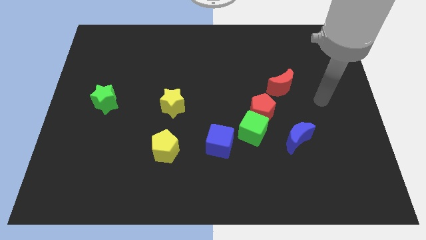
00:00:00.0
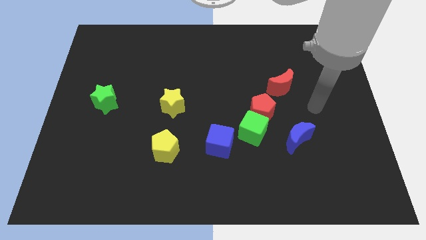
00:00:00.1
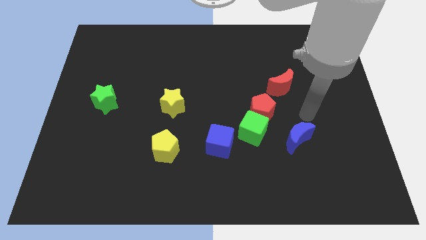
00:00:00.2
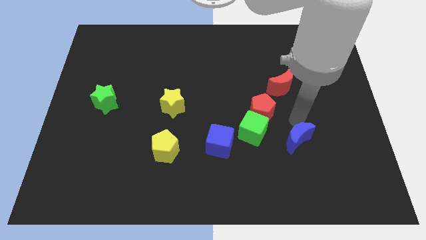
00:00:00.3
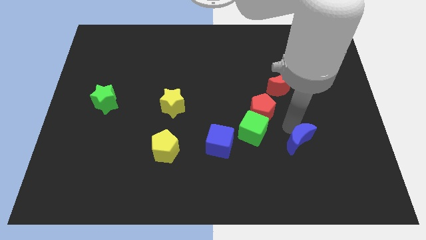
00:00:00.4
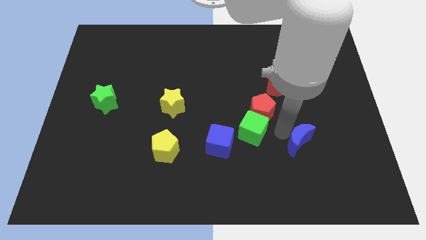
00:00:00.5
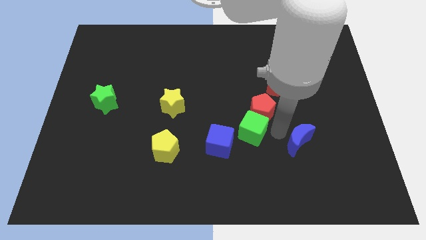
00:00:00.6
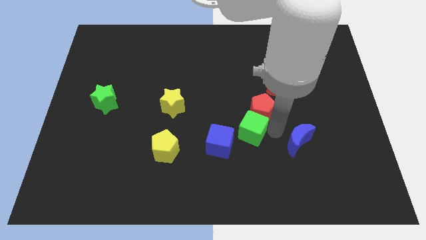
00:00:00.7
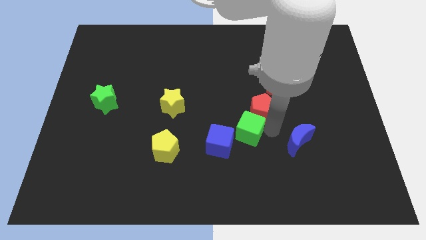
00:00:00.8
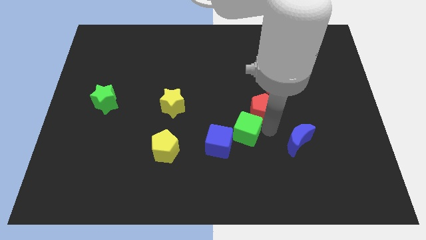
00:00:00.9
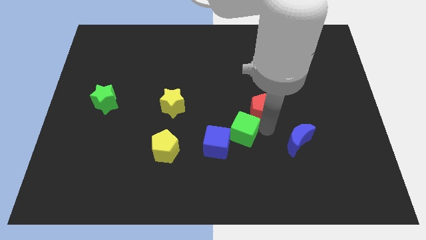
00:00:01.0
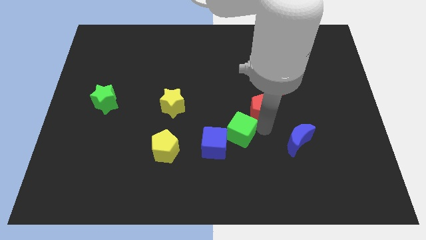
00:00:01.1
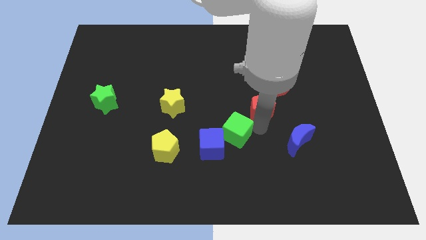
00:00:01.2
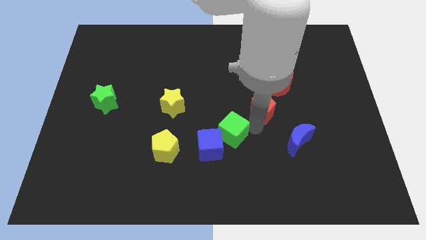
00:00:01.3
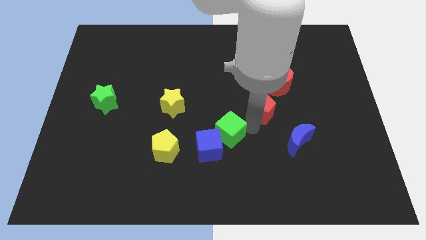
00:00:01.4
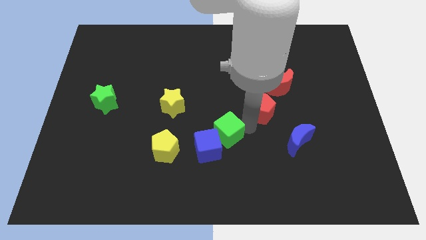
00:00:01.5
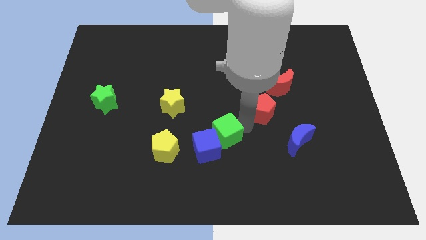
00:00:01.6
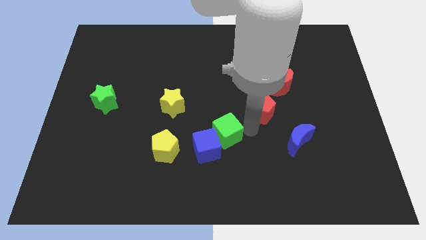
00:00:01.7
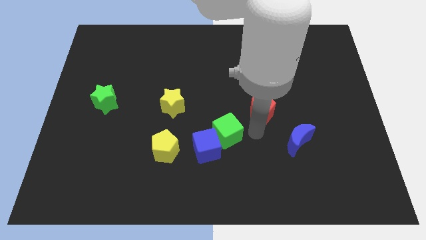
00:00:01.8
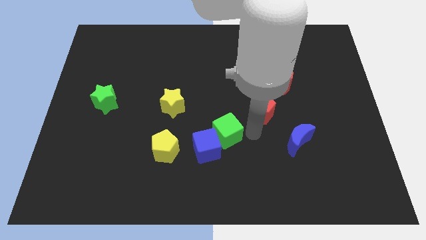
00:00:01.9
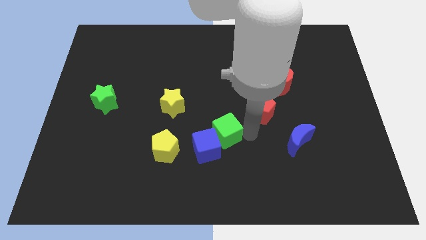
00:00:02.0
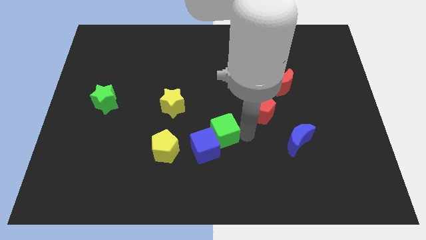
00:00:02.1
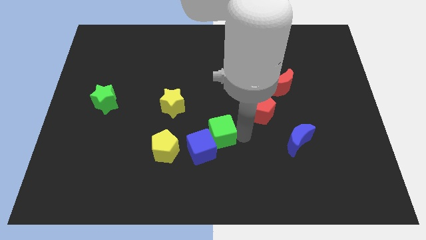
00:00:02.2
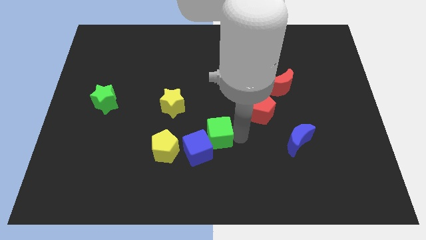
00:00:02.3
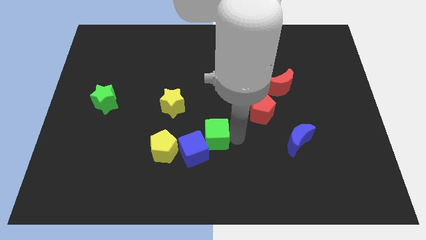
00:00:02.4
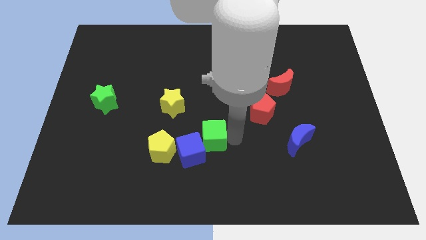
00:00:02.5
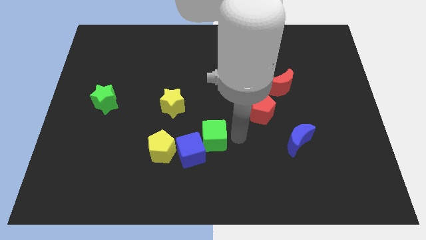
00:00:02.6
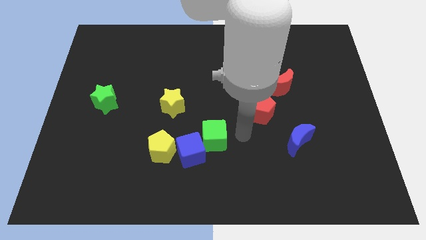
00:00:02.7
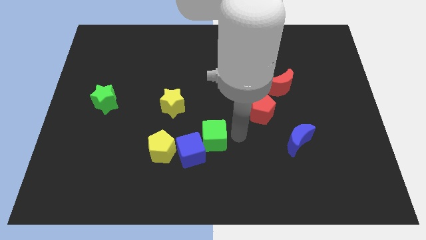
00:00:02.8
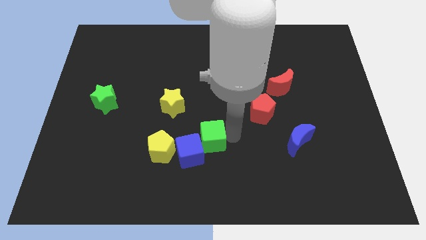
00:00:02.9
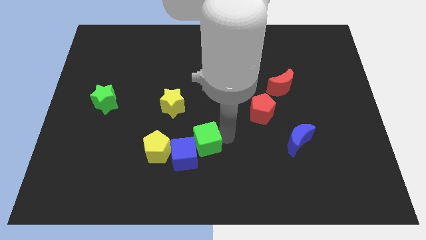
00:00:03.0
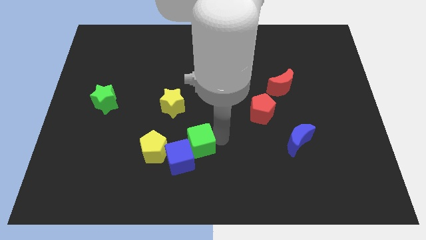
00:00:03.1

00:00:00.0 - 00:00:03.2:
pull the green cube apart from the clump

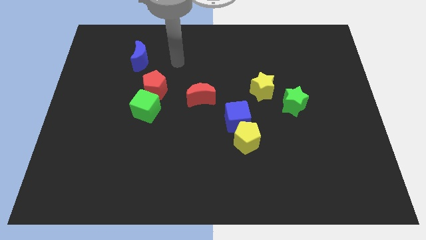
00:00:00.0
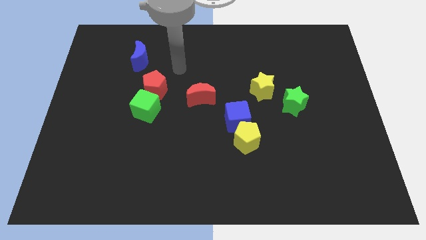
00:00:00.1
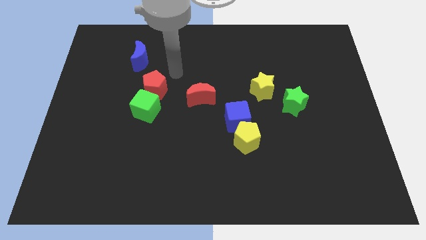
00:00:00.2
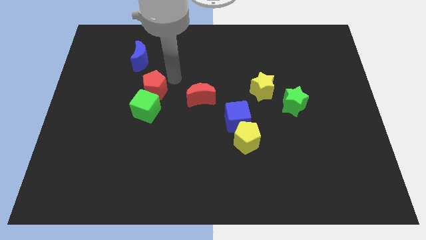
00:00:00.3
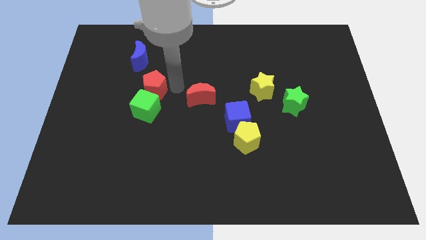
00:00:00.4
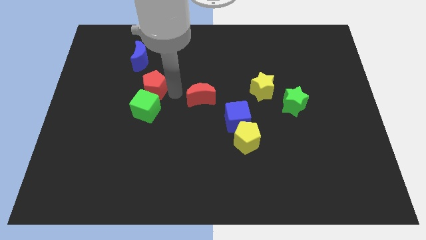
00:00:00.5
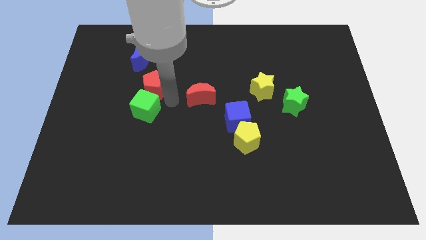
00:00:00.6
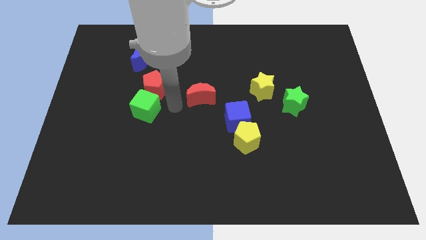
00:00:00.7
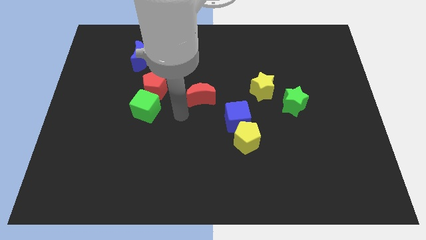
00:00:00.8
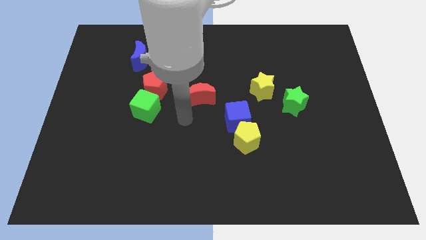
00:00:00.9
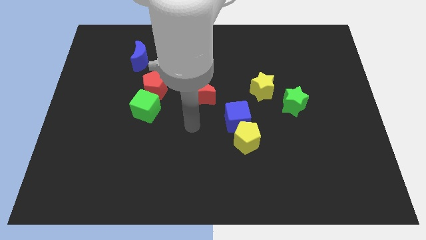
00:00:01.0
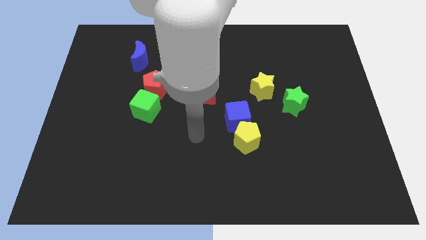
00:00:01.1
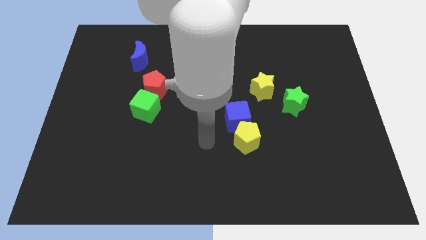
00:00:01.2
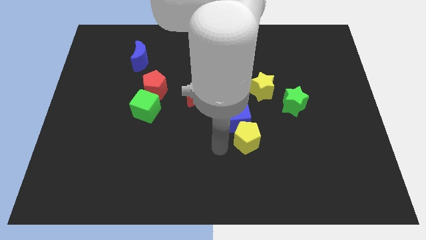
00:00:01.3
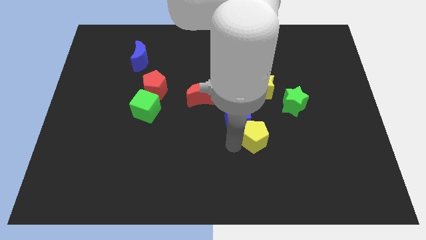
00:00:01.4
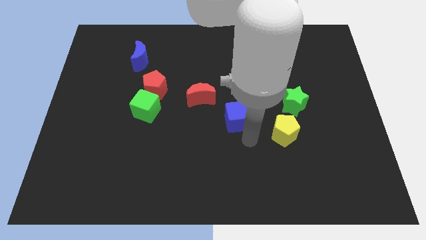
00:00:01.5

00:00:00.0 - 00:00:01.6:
move the blue cube away from the yellow pentagon

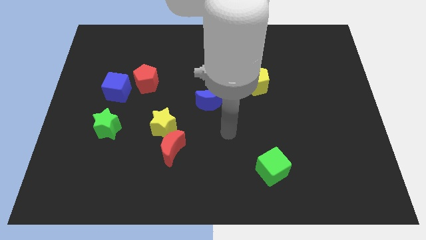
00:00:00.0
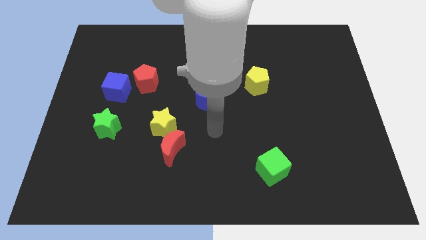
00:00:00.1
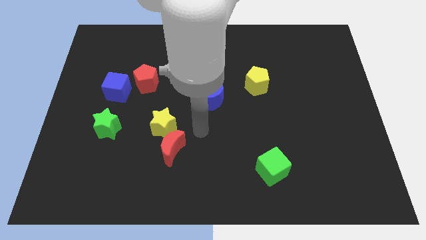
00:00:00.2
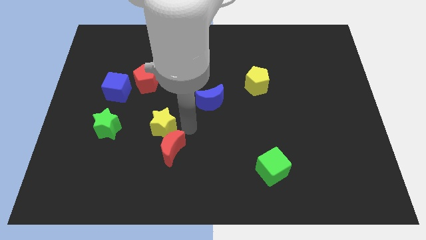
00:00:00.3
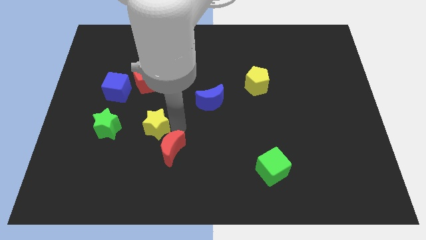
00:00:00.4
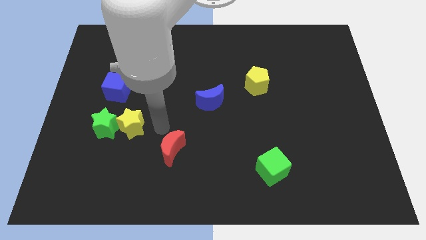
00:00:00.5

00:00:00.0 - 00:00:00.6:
separate the red moon from the yellow star

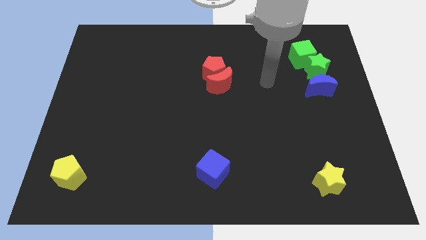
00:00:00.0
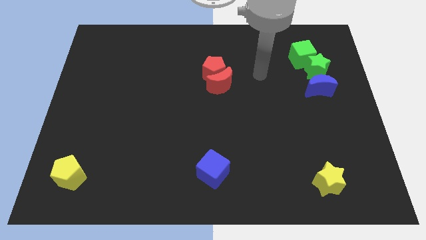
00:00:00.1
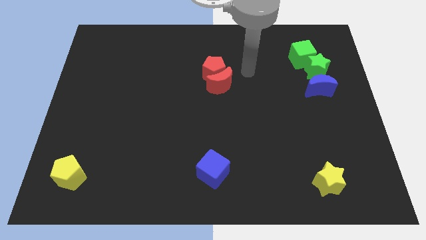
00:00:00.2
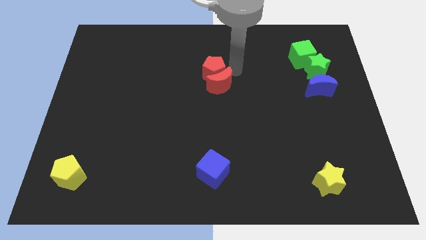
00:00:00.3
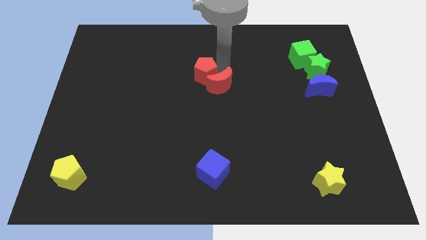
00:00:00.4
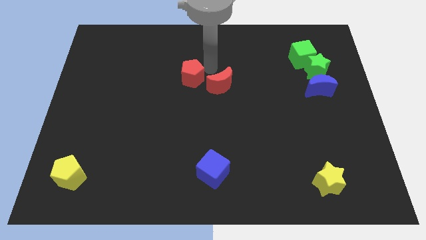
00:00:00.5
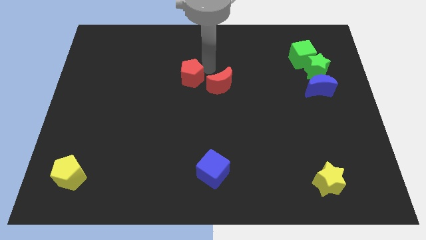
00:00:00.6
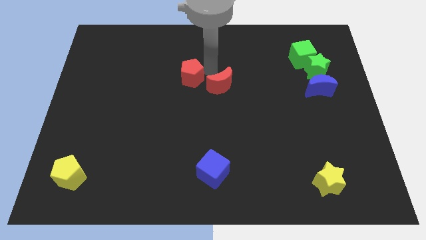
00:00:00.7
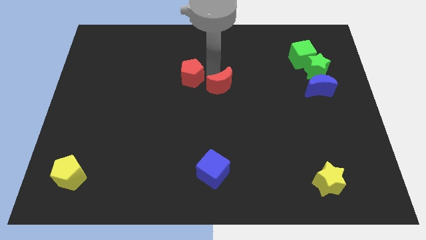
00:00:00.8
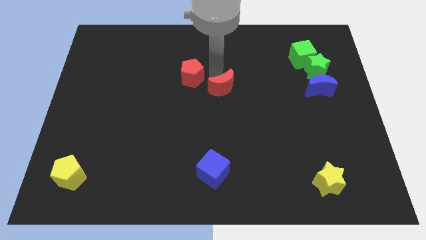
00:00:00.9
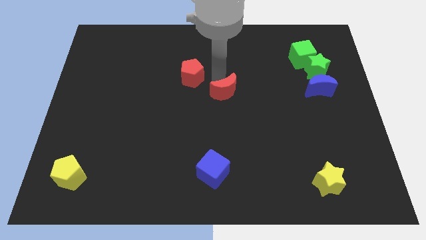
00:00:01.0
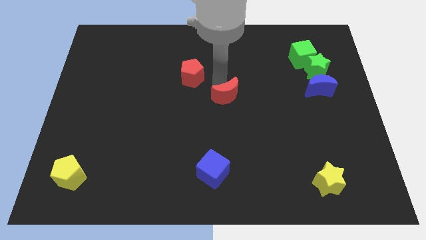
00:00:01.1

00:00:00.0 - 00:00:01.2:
move the red moon away from the red pentagon

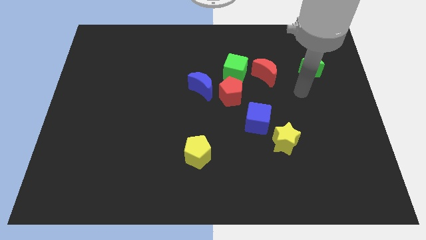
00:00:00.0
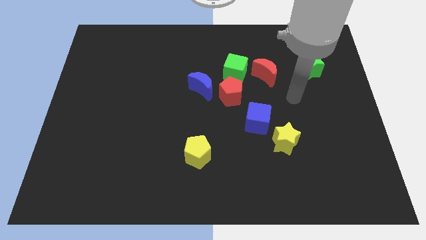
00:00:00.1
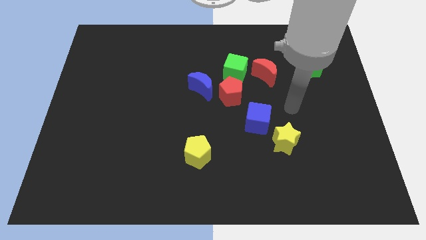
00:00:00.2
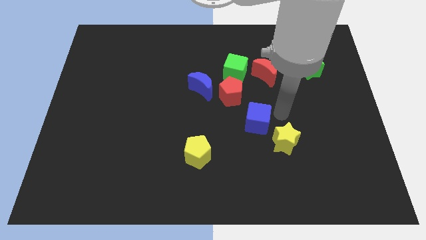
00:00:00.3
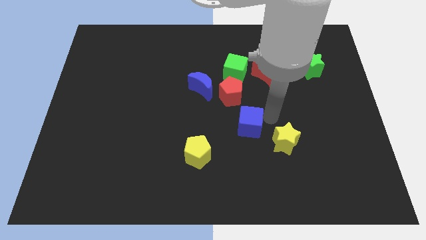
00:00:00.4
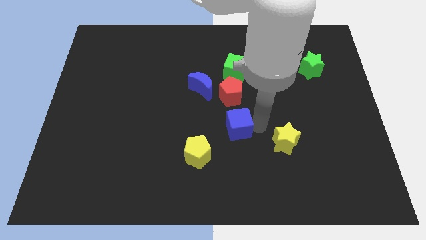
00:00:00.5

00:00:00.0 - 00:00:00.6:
move the yellow star away from the blue cube

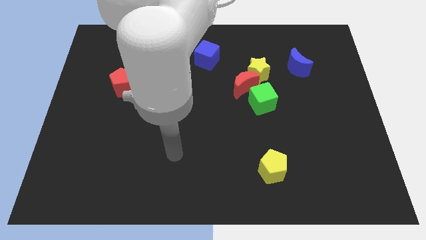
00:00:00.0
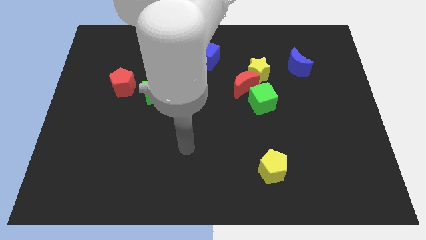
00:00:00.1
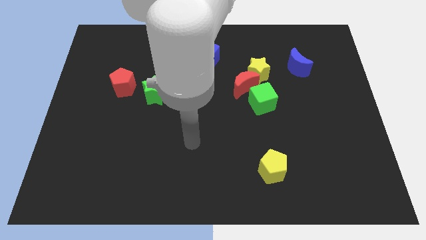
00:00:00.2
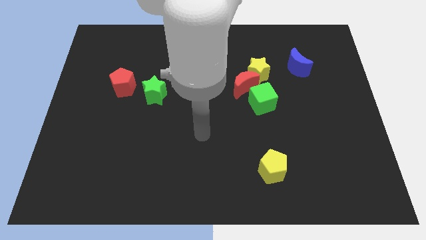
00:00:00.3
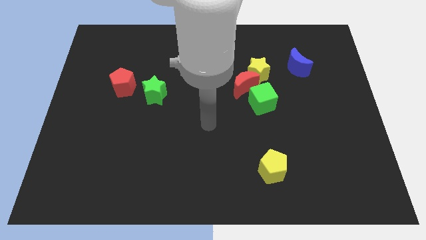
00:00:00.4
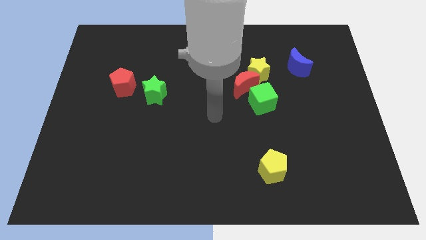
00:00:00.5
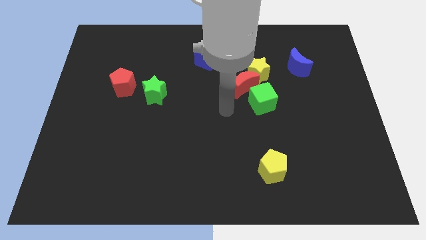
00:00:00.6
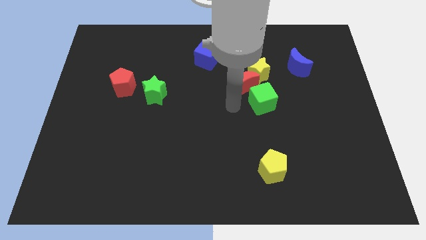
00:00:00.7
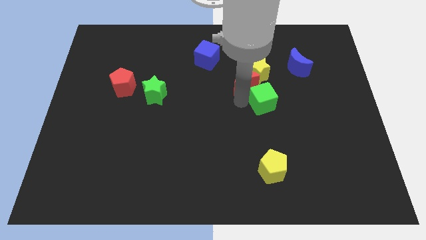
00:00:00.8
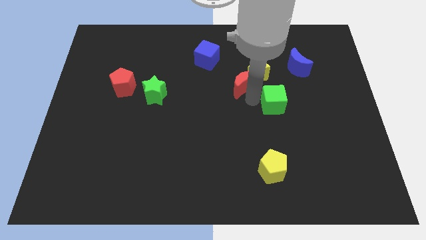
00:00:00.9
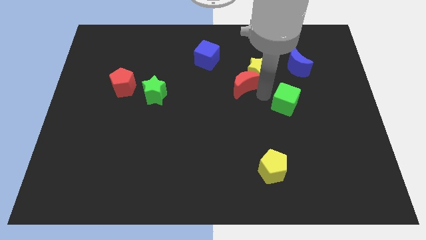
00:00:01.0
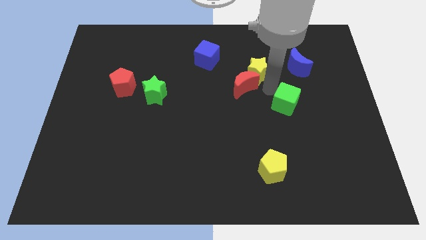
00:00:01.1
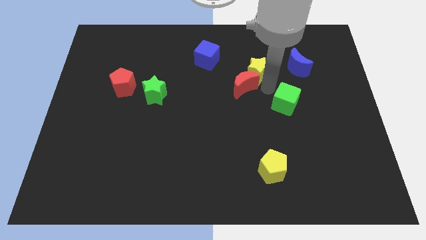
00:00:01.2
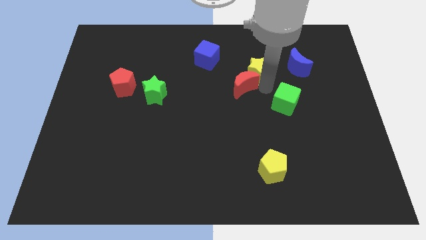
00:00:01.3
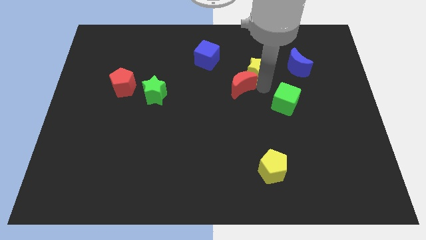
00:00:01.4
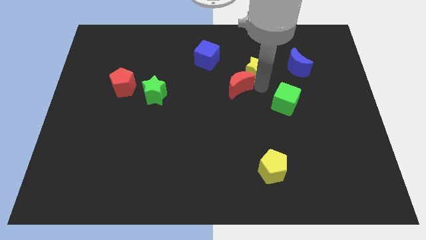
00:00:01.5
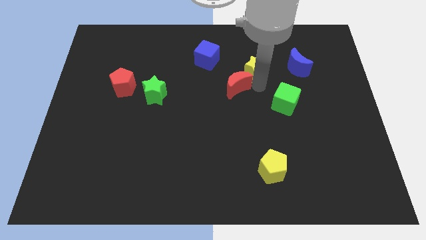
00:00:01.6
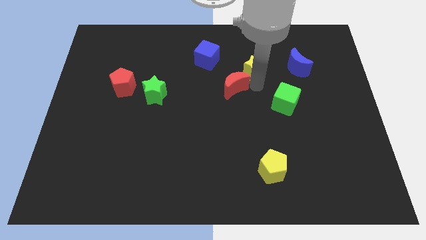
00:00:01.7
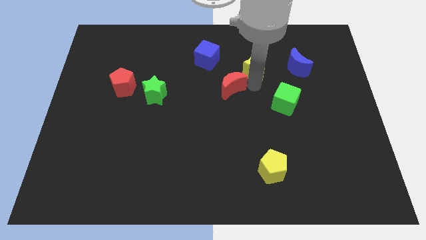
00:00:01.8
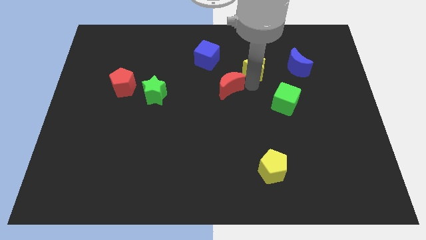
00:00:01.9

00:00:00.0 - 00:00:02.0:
pull the red moon apart from the yellow star and green cube

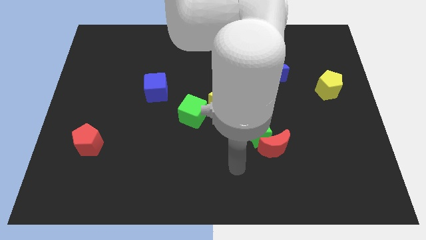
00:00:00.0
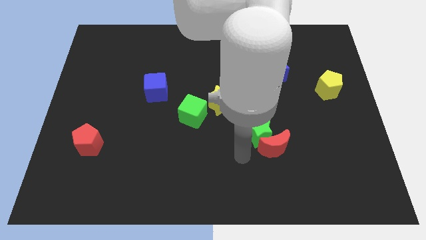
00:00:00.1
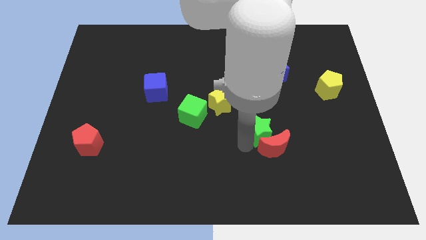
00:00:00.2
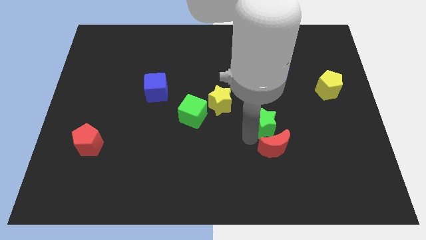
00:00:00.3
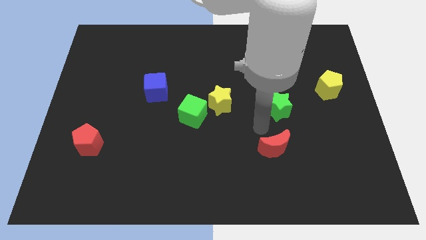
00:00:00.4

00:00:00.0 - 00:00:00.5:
move the red moon away from the green star
